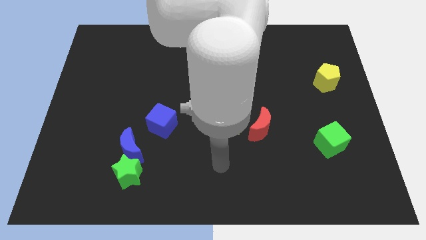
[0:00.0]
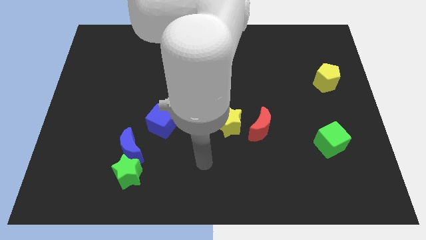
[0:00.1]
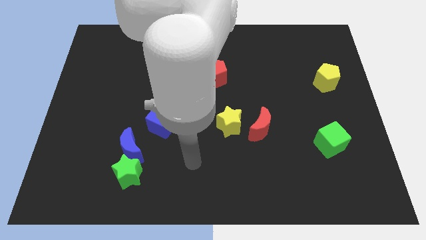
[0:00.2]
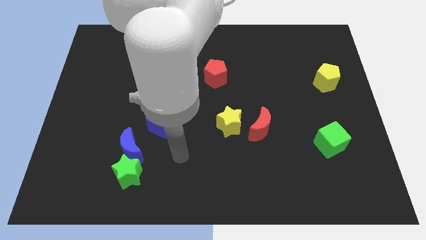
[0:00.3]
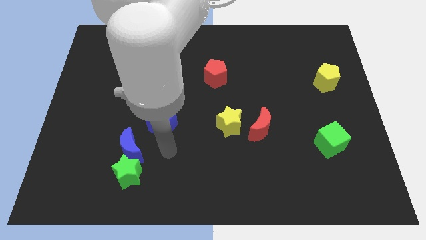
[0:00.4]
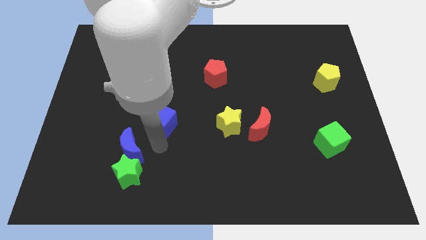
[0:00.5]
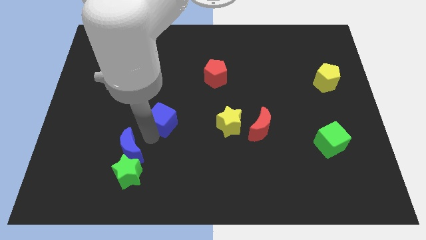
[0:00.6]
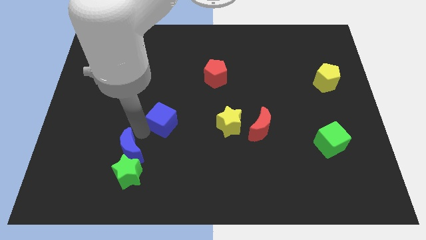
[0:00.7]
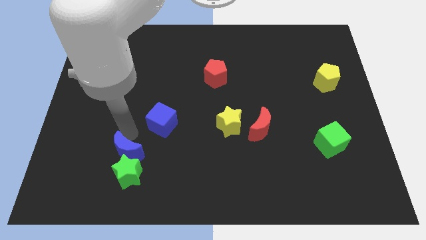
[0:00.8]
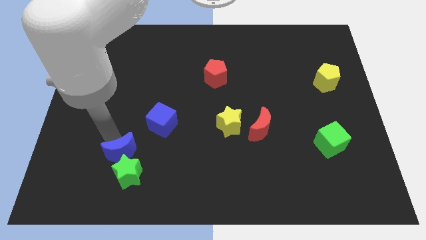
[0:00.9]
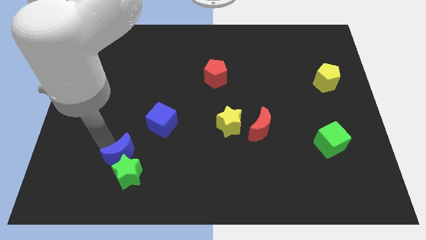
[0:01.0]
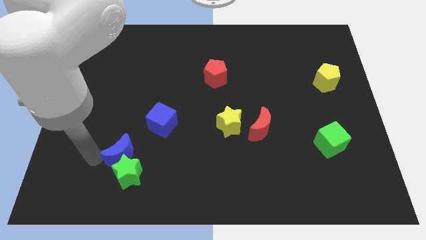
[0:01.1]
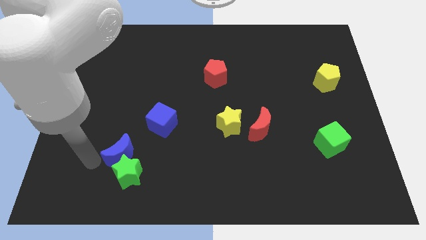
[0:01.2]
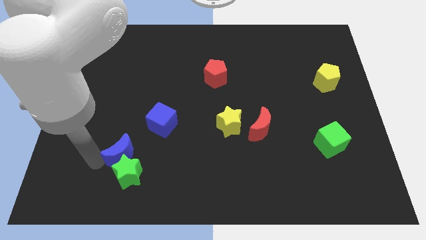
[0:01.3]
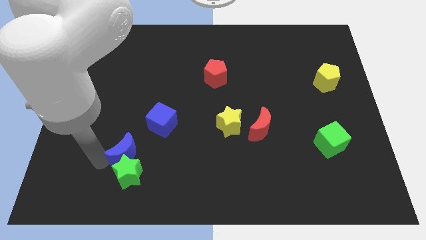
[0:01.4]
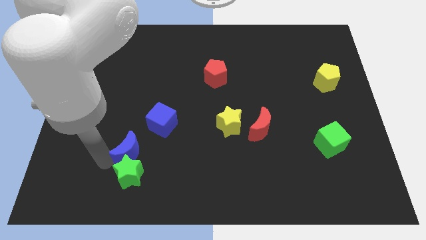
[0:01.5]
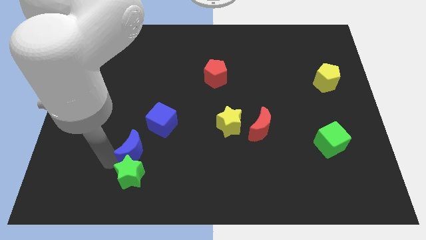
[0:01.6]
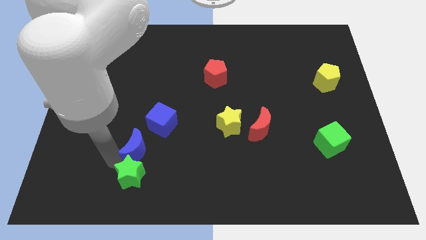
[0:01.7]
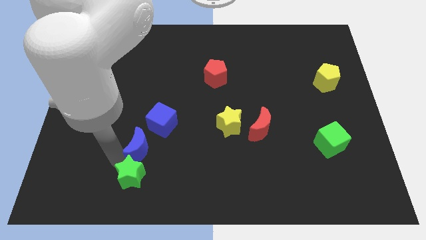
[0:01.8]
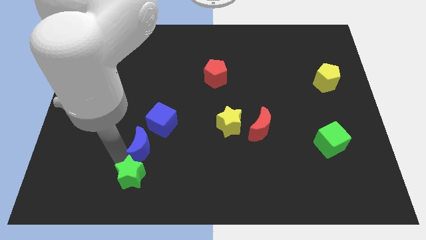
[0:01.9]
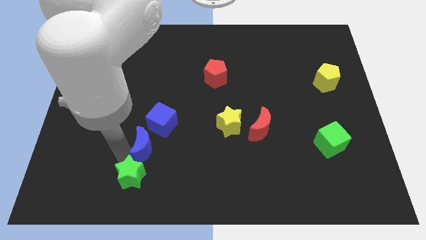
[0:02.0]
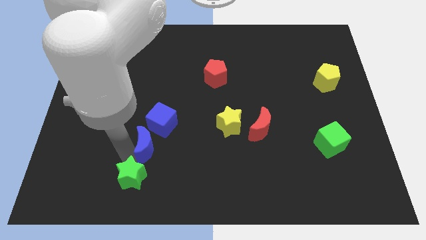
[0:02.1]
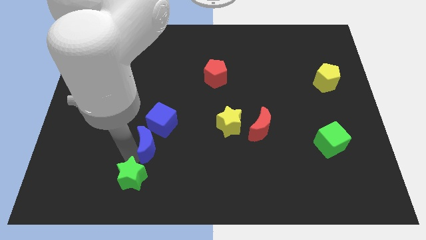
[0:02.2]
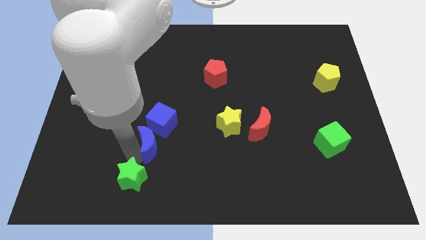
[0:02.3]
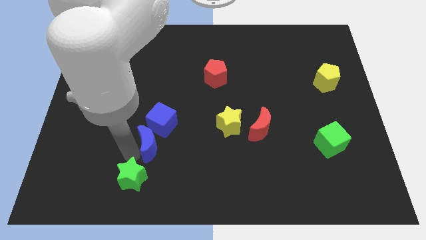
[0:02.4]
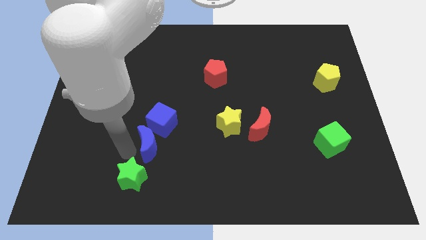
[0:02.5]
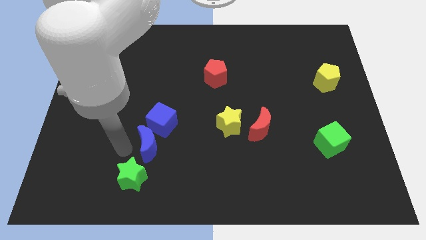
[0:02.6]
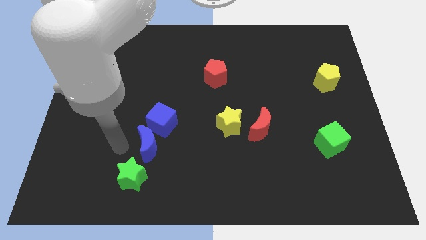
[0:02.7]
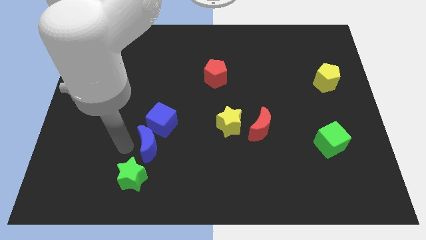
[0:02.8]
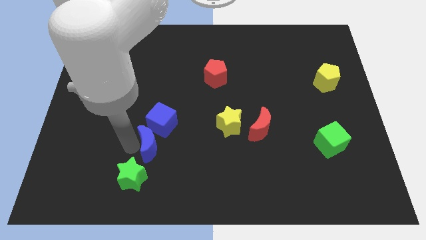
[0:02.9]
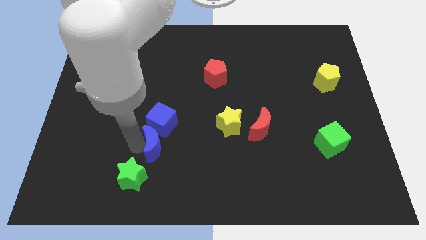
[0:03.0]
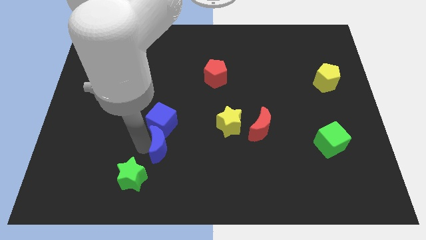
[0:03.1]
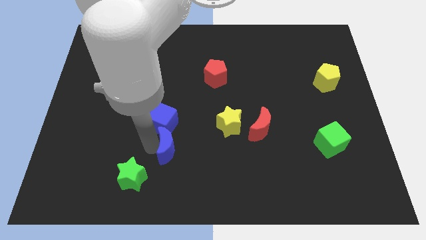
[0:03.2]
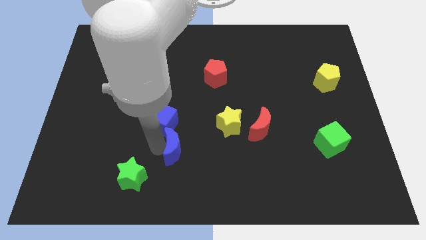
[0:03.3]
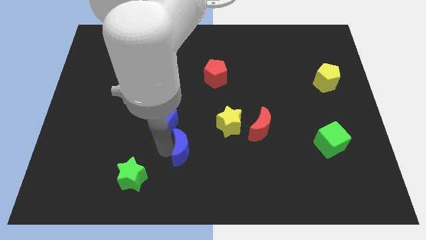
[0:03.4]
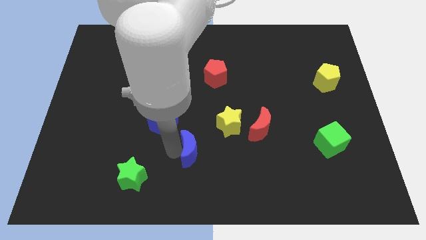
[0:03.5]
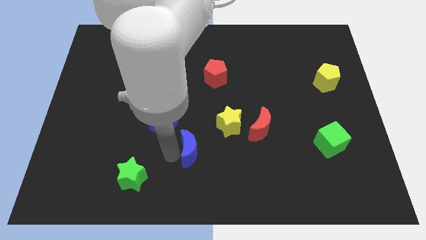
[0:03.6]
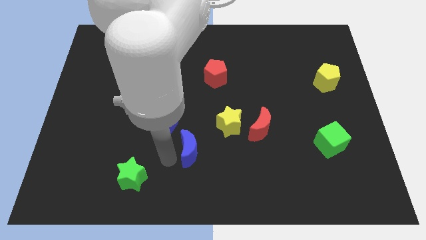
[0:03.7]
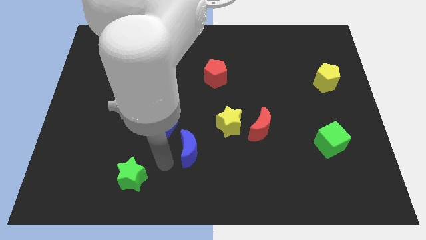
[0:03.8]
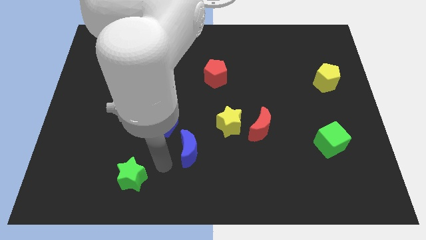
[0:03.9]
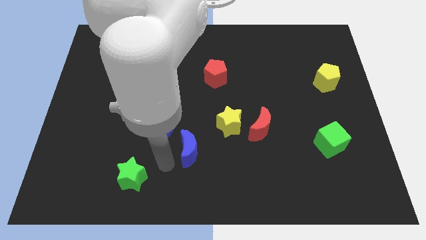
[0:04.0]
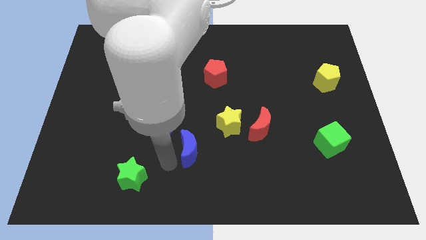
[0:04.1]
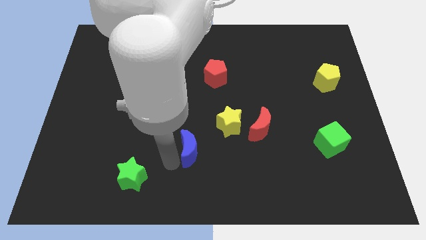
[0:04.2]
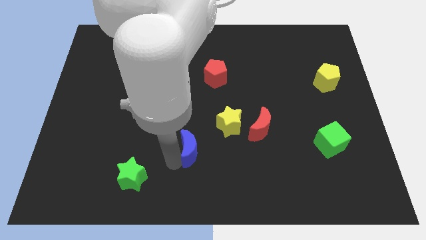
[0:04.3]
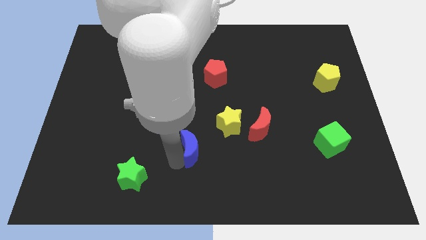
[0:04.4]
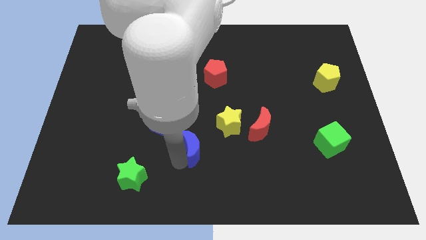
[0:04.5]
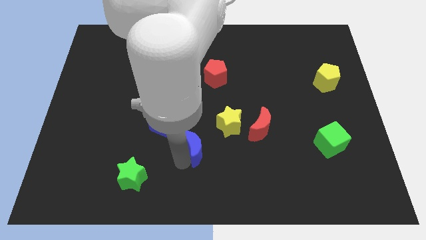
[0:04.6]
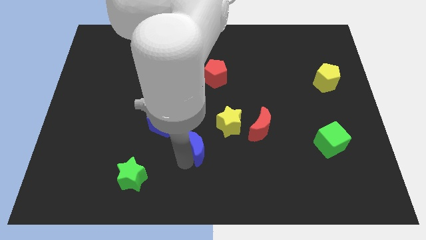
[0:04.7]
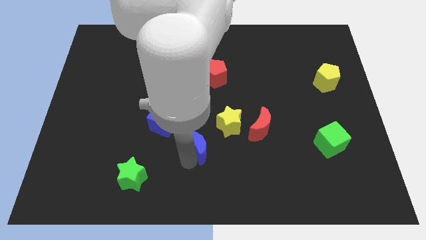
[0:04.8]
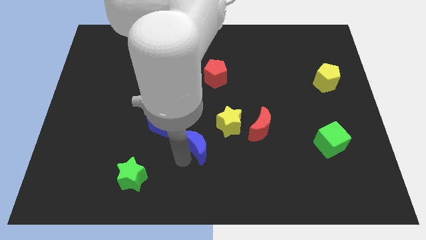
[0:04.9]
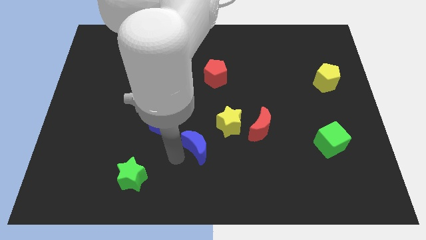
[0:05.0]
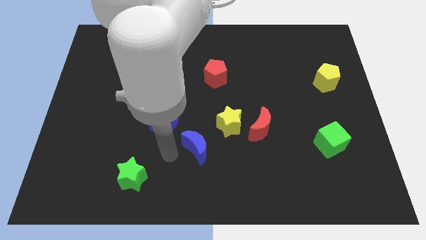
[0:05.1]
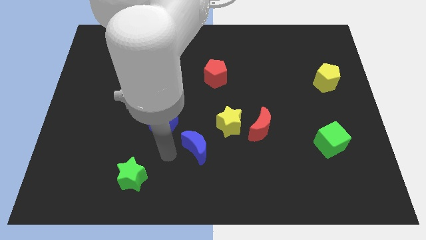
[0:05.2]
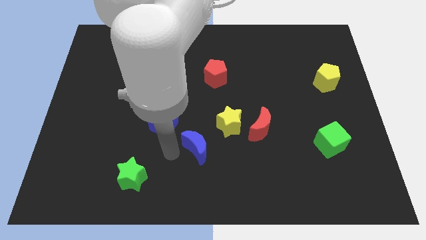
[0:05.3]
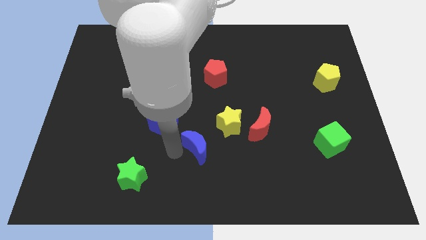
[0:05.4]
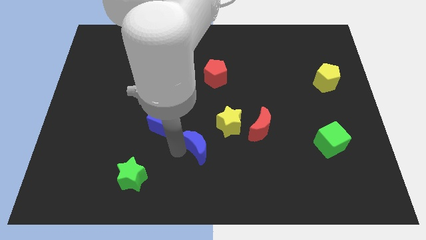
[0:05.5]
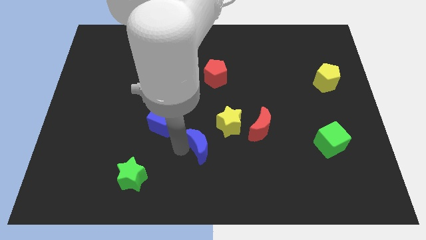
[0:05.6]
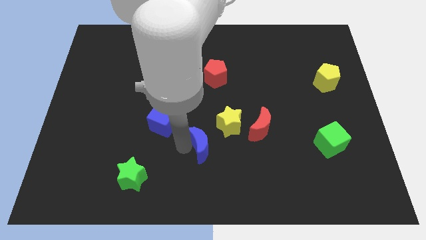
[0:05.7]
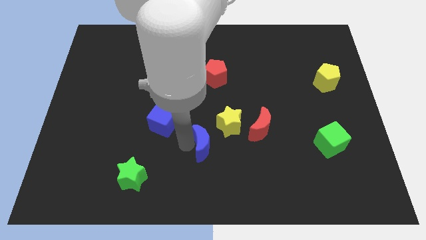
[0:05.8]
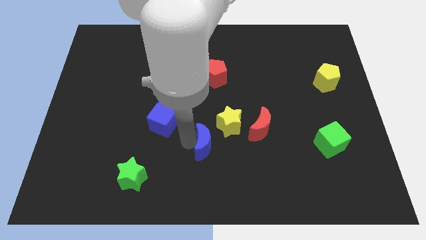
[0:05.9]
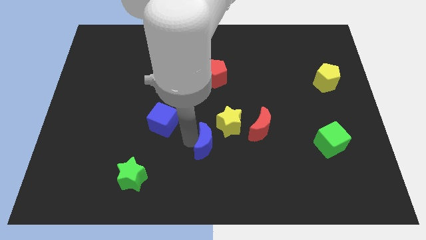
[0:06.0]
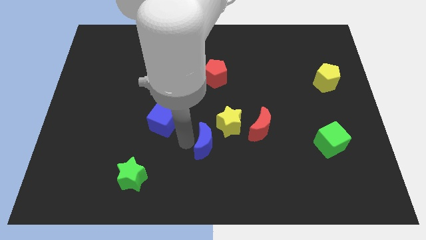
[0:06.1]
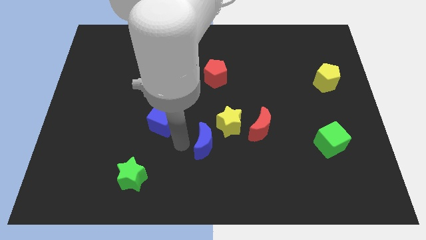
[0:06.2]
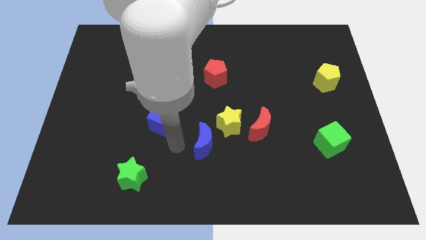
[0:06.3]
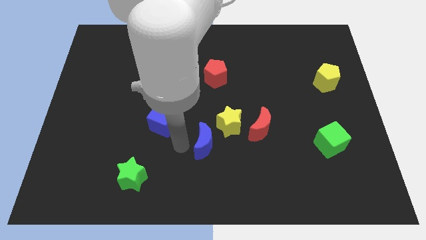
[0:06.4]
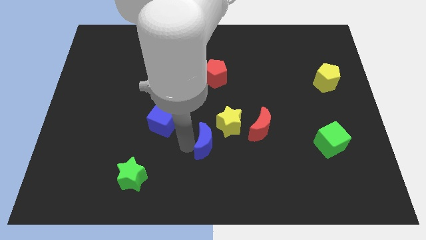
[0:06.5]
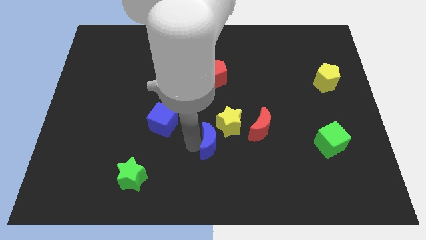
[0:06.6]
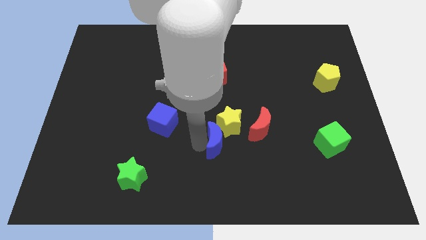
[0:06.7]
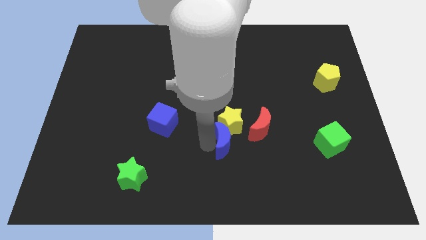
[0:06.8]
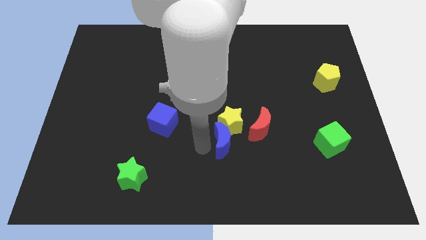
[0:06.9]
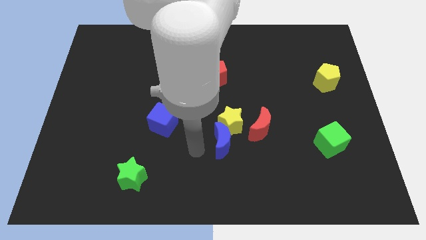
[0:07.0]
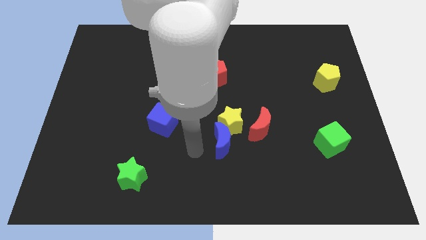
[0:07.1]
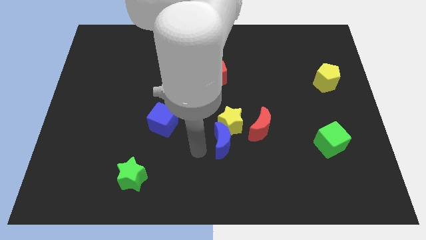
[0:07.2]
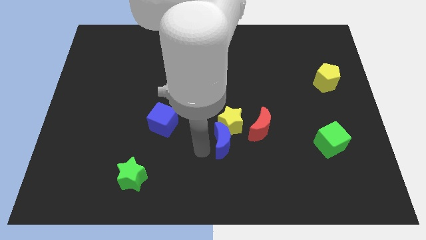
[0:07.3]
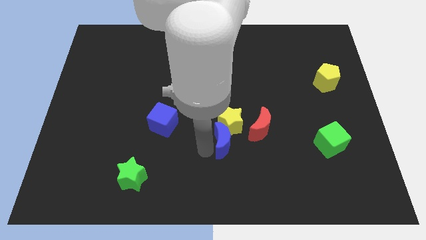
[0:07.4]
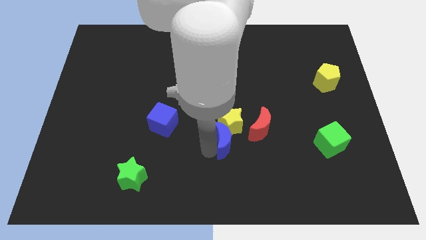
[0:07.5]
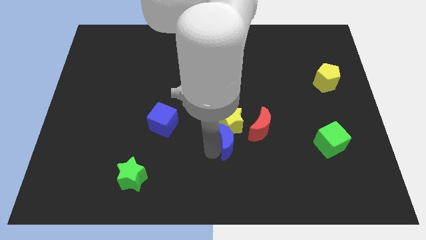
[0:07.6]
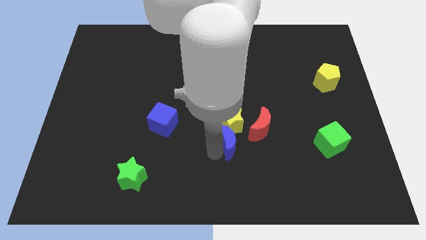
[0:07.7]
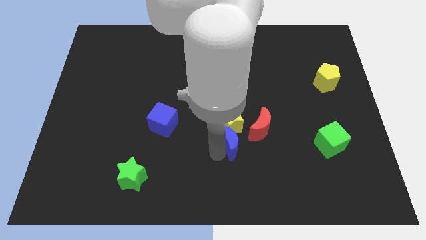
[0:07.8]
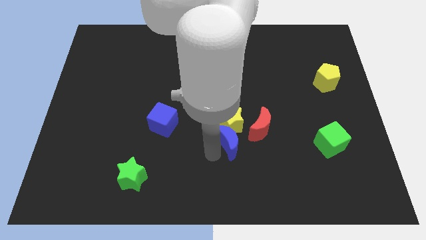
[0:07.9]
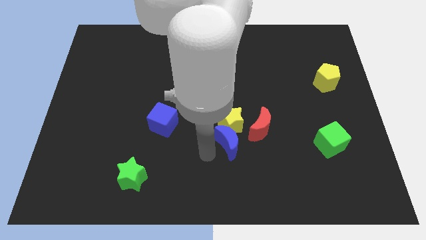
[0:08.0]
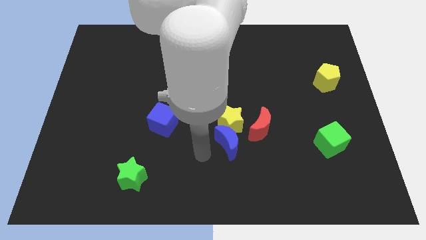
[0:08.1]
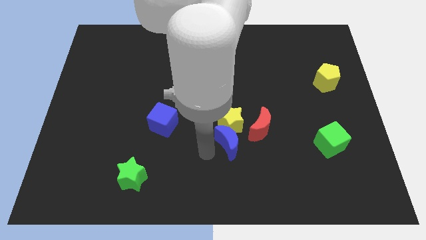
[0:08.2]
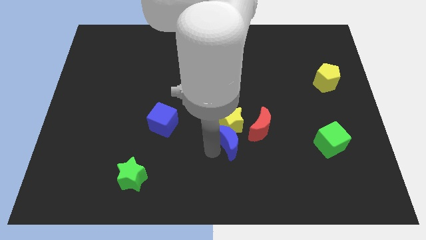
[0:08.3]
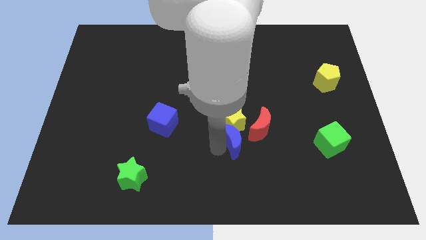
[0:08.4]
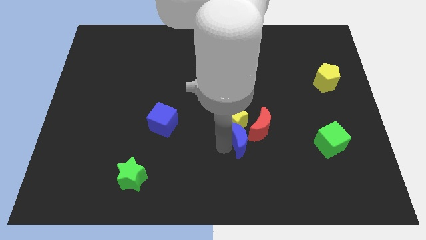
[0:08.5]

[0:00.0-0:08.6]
put the blue moon next to the red moon
